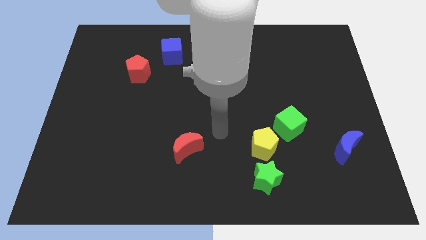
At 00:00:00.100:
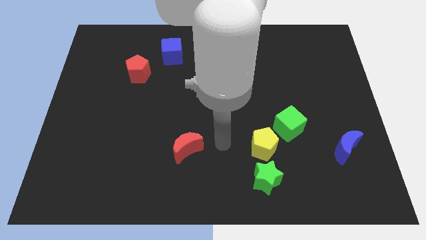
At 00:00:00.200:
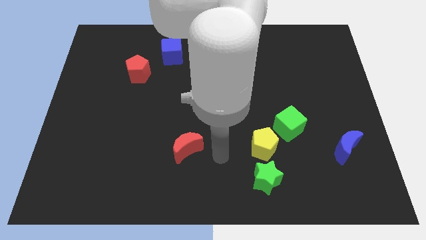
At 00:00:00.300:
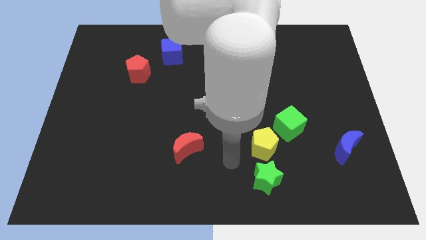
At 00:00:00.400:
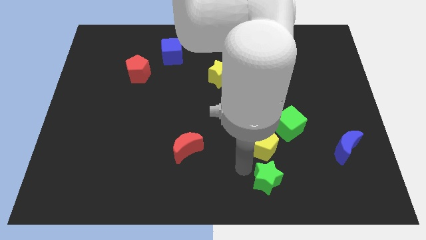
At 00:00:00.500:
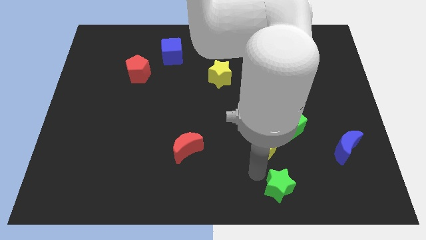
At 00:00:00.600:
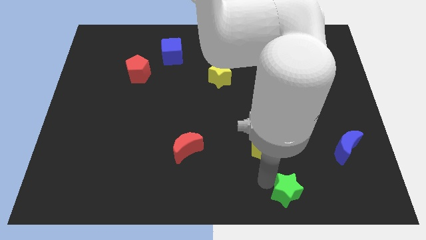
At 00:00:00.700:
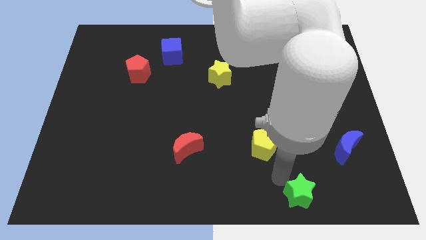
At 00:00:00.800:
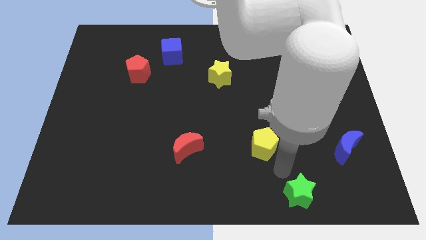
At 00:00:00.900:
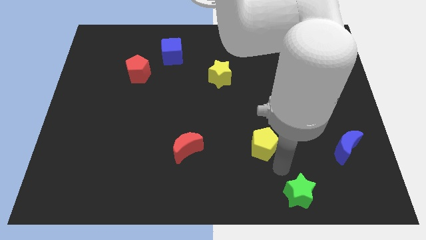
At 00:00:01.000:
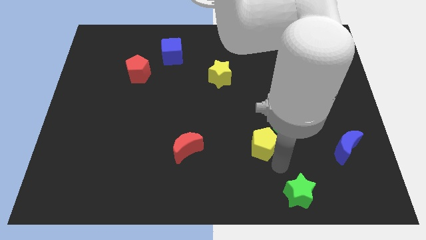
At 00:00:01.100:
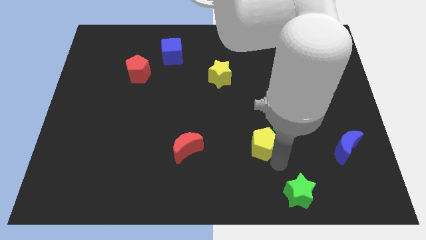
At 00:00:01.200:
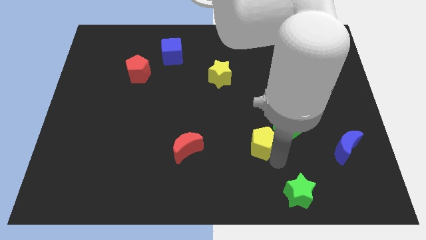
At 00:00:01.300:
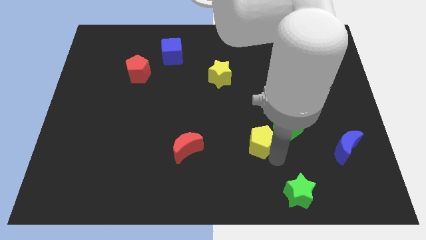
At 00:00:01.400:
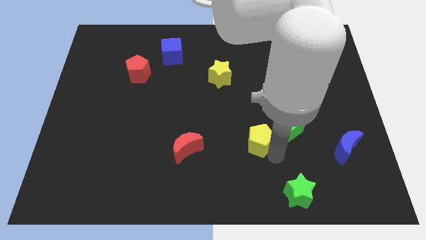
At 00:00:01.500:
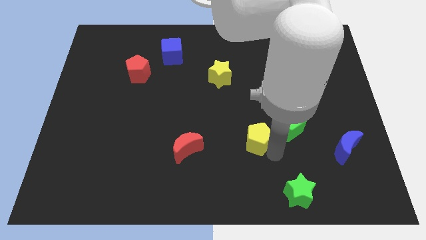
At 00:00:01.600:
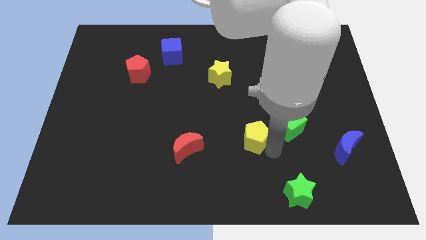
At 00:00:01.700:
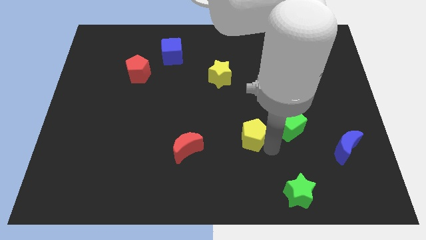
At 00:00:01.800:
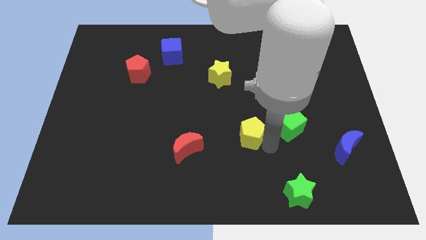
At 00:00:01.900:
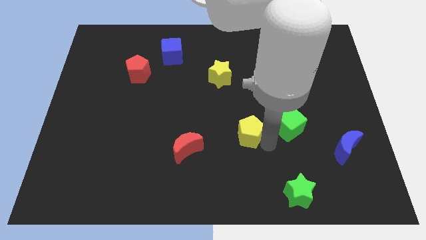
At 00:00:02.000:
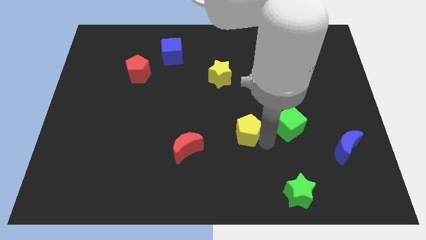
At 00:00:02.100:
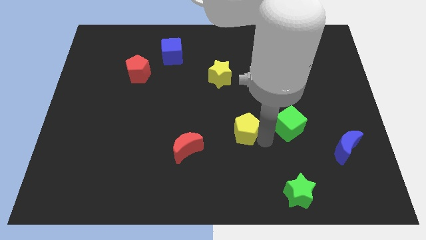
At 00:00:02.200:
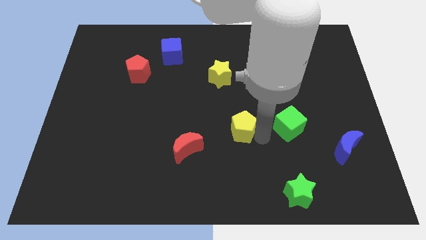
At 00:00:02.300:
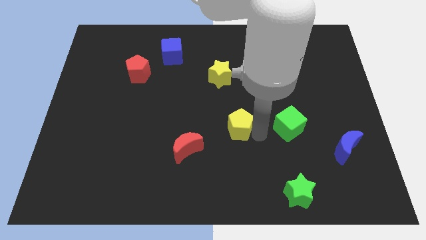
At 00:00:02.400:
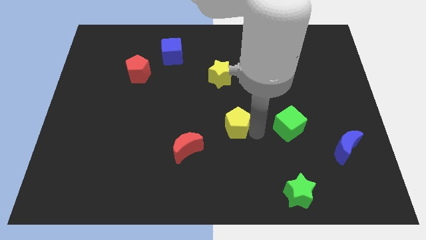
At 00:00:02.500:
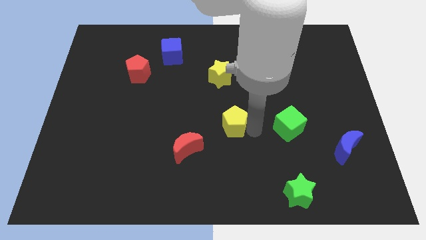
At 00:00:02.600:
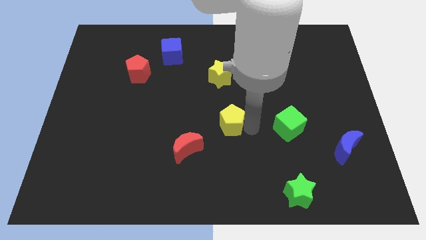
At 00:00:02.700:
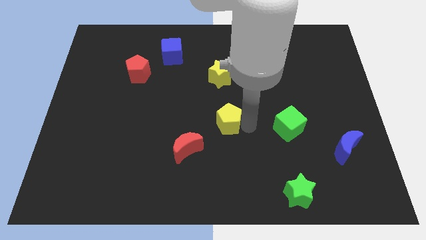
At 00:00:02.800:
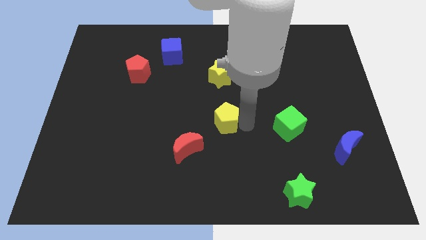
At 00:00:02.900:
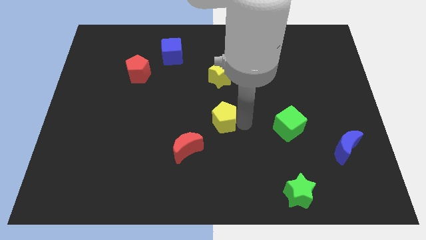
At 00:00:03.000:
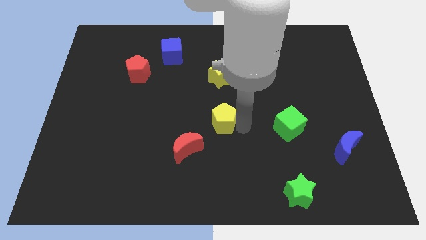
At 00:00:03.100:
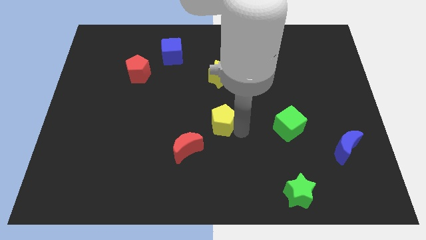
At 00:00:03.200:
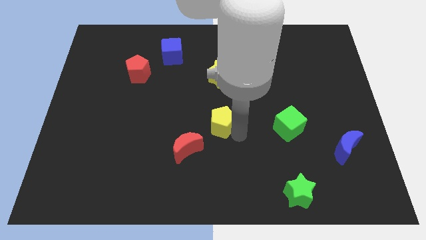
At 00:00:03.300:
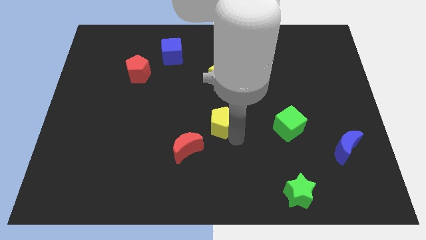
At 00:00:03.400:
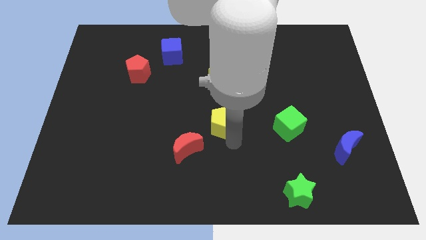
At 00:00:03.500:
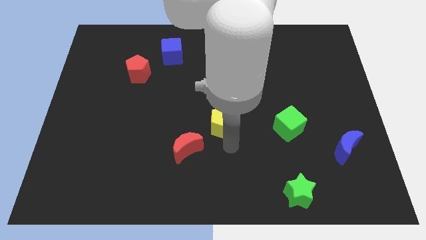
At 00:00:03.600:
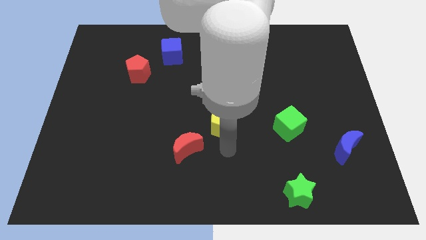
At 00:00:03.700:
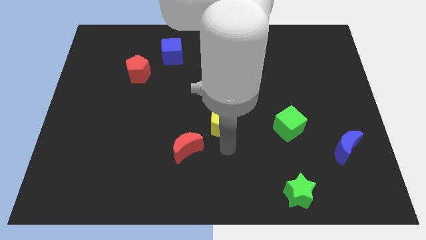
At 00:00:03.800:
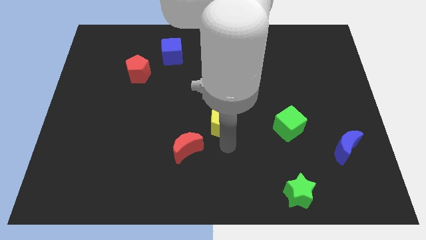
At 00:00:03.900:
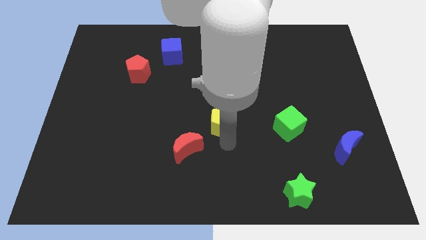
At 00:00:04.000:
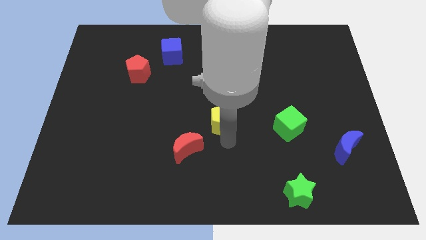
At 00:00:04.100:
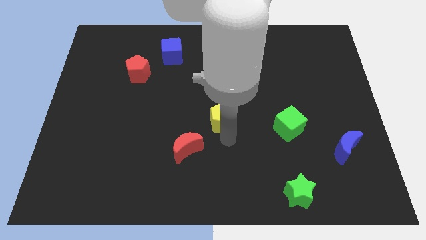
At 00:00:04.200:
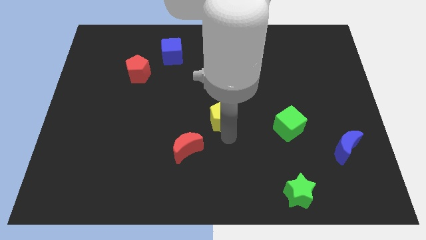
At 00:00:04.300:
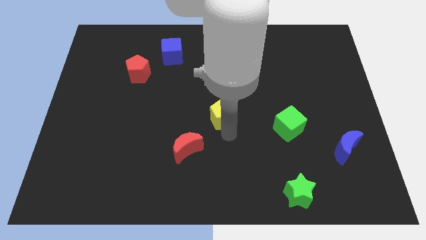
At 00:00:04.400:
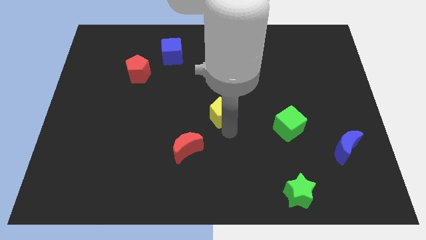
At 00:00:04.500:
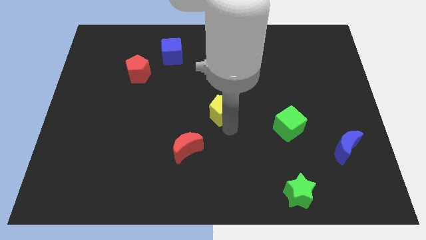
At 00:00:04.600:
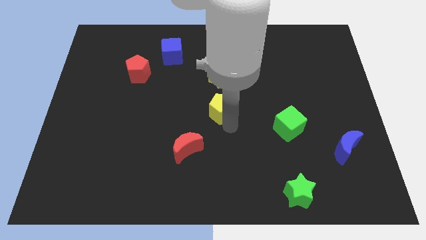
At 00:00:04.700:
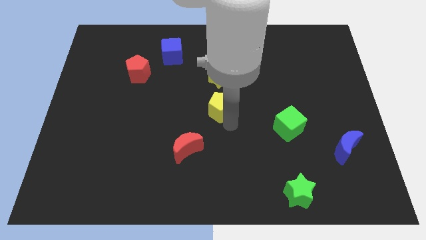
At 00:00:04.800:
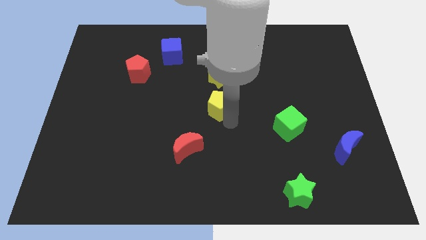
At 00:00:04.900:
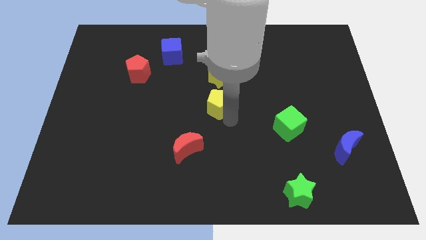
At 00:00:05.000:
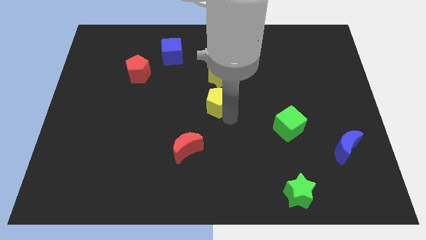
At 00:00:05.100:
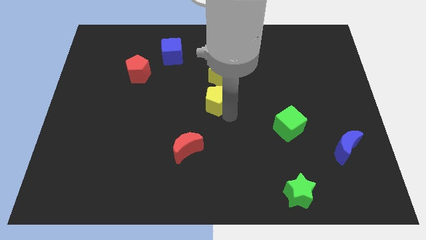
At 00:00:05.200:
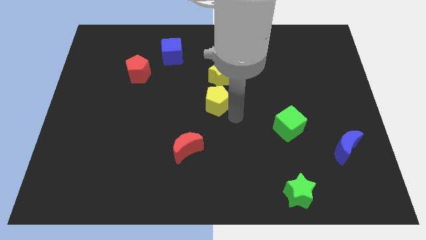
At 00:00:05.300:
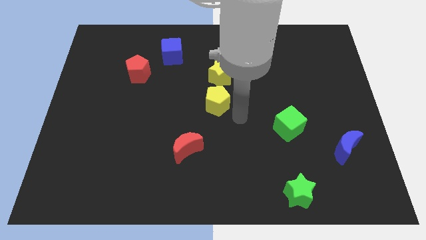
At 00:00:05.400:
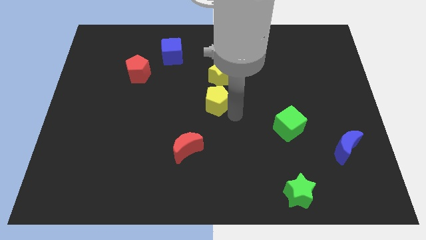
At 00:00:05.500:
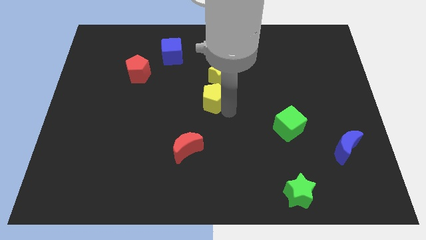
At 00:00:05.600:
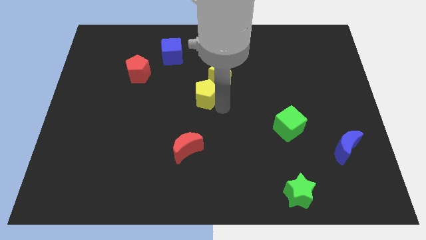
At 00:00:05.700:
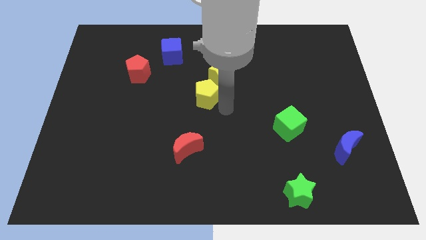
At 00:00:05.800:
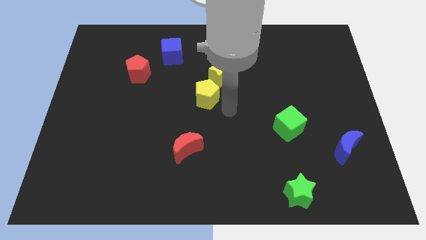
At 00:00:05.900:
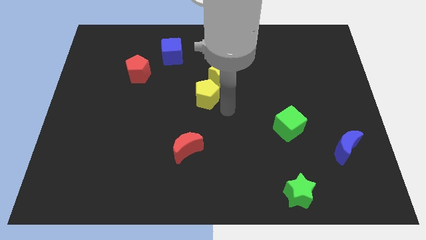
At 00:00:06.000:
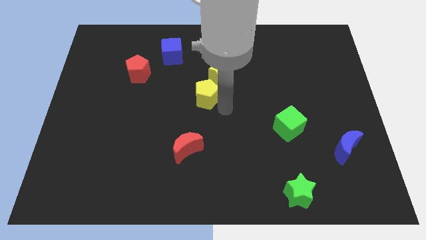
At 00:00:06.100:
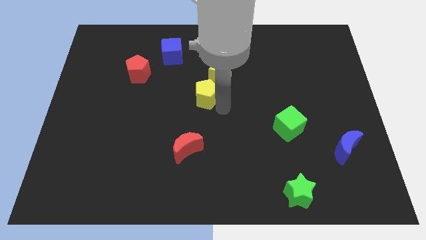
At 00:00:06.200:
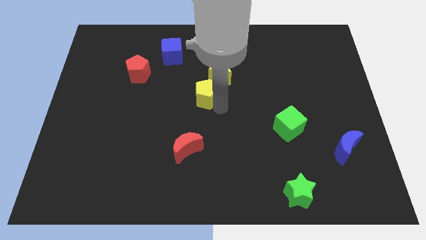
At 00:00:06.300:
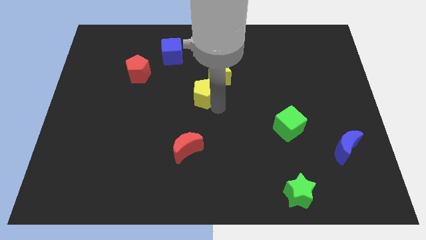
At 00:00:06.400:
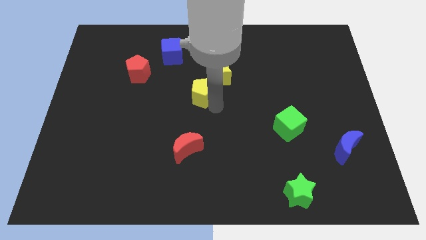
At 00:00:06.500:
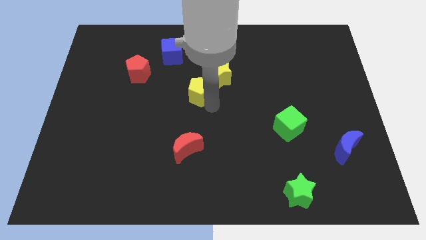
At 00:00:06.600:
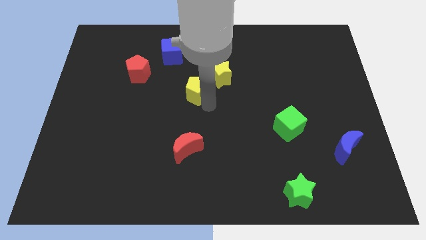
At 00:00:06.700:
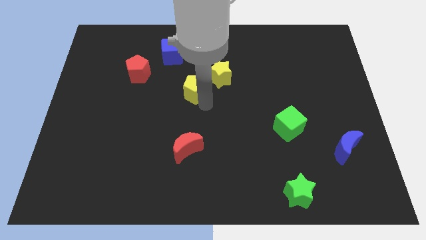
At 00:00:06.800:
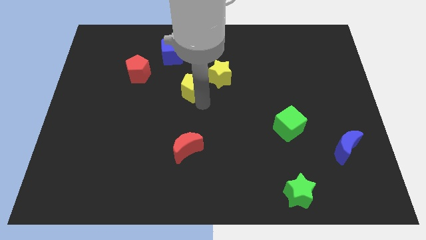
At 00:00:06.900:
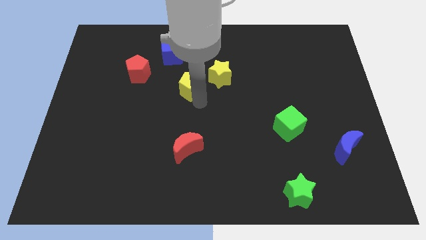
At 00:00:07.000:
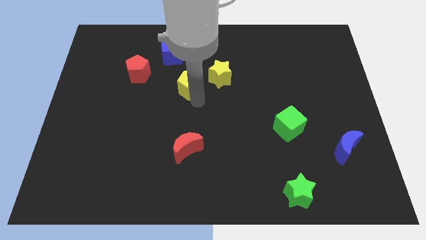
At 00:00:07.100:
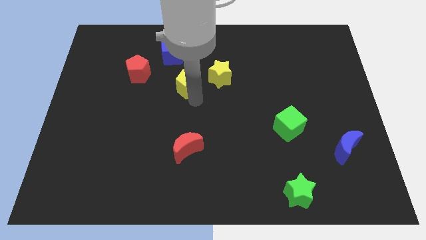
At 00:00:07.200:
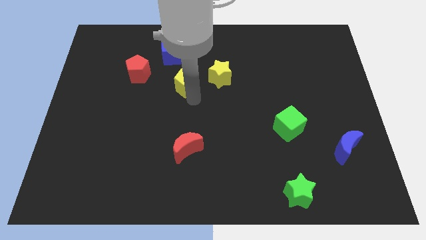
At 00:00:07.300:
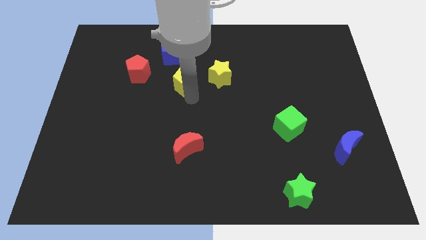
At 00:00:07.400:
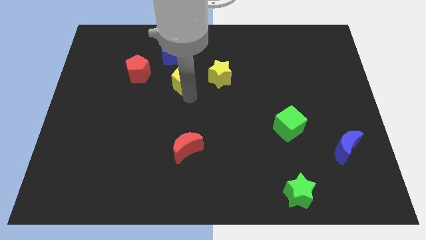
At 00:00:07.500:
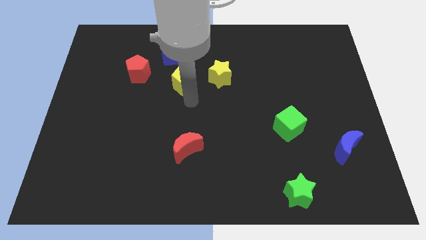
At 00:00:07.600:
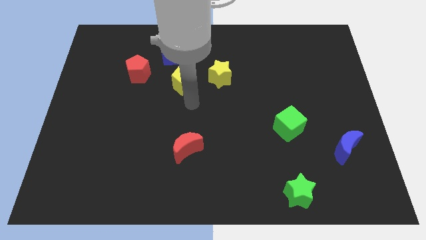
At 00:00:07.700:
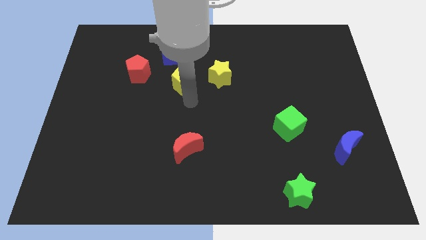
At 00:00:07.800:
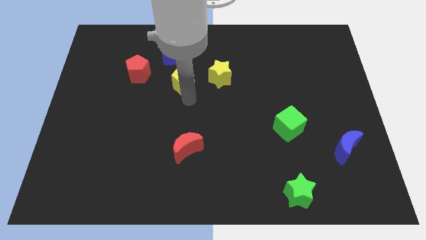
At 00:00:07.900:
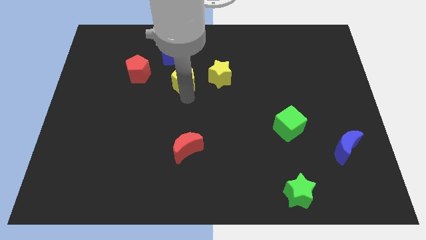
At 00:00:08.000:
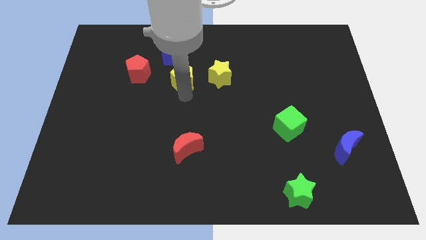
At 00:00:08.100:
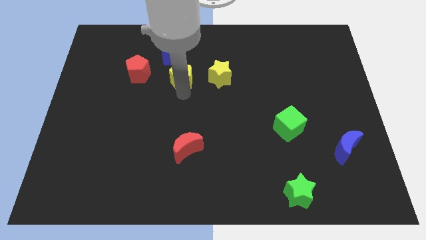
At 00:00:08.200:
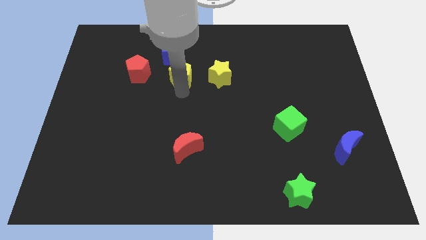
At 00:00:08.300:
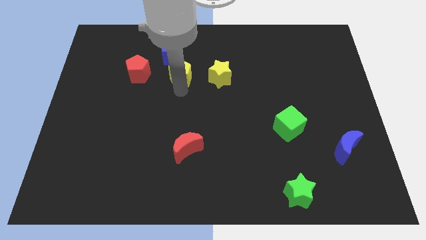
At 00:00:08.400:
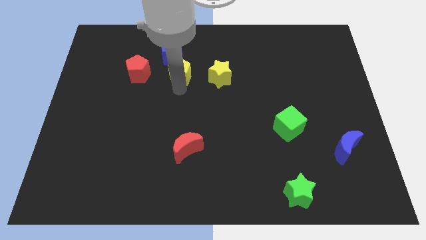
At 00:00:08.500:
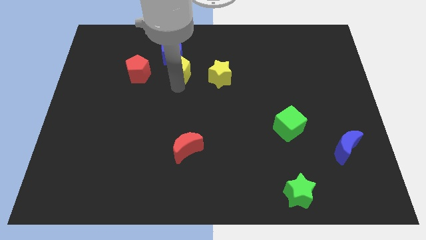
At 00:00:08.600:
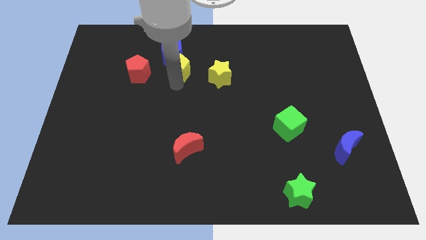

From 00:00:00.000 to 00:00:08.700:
put the yellow pentagon next to the blue cube
